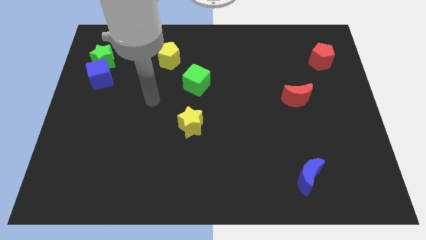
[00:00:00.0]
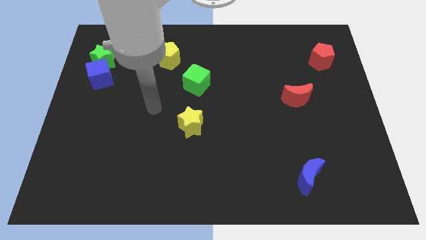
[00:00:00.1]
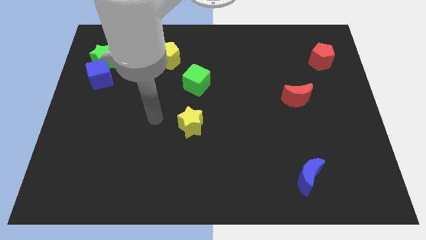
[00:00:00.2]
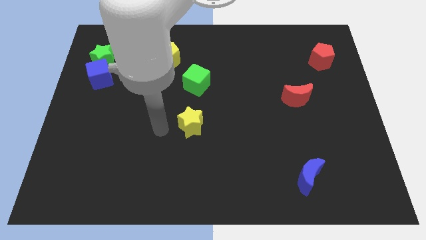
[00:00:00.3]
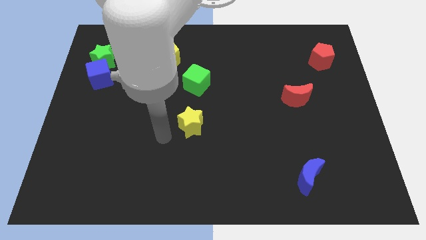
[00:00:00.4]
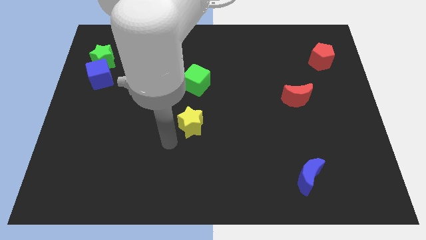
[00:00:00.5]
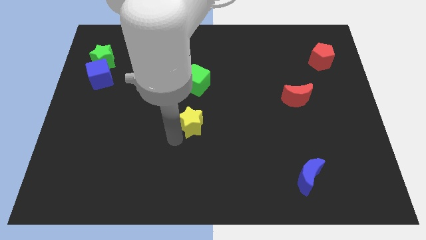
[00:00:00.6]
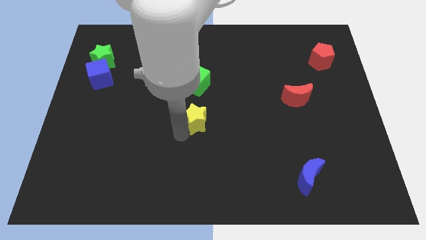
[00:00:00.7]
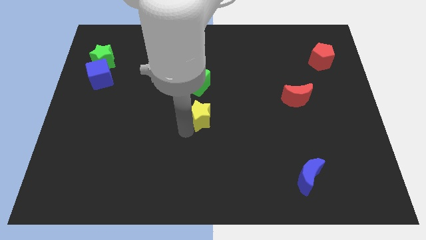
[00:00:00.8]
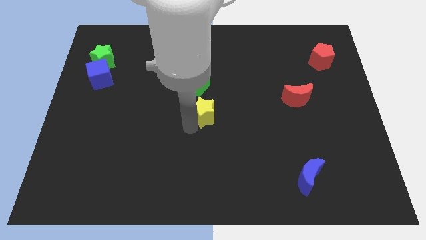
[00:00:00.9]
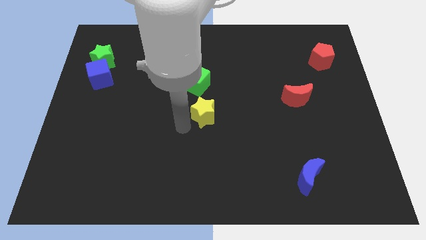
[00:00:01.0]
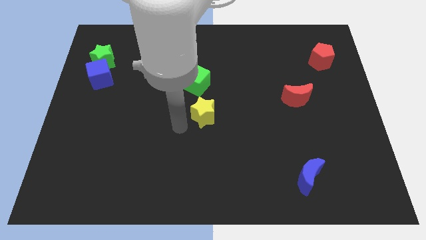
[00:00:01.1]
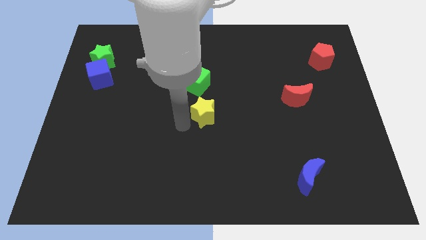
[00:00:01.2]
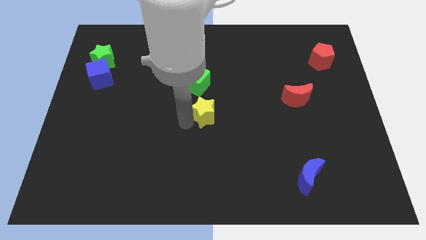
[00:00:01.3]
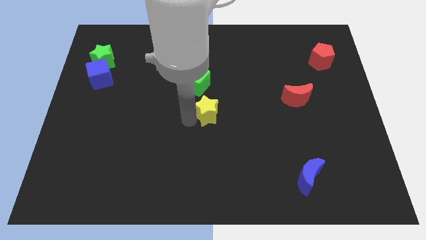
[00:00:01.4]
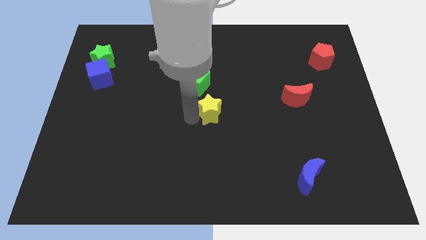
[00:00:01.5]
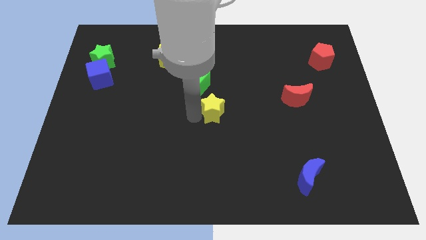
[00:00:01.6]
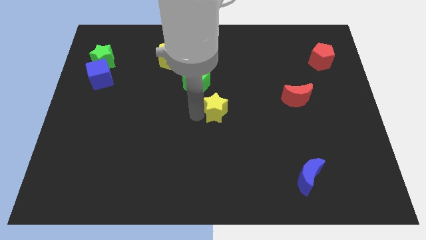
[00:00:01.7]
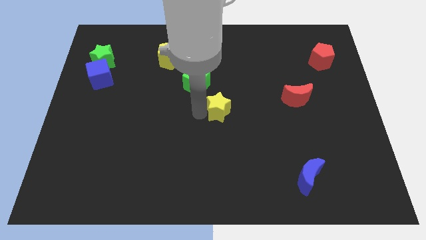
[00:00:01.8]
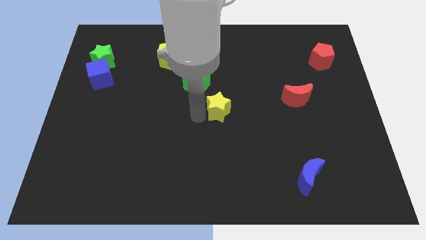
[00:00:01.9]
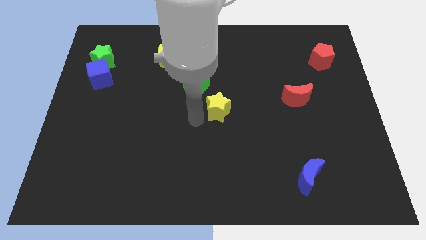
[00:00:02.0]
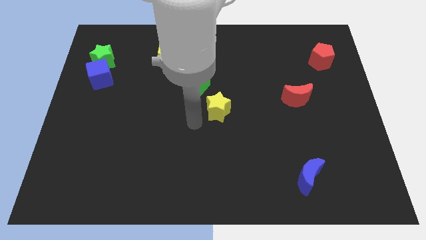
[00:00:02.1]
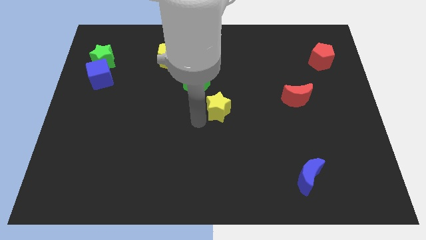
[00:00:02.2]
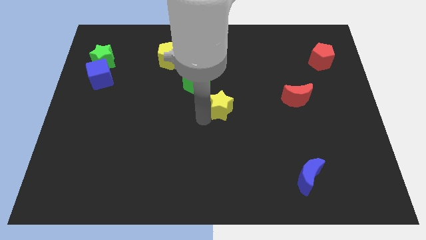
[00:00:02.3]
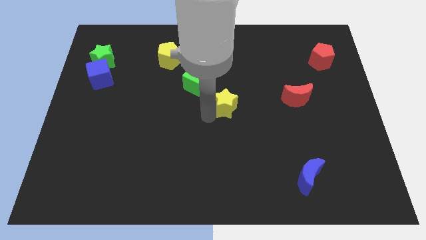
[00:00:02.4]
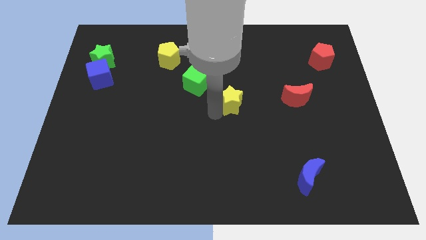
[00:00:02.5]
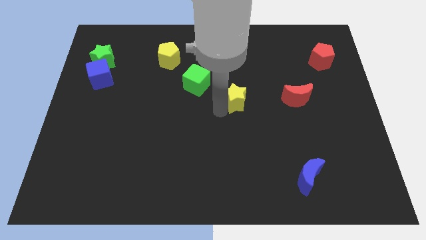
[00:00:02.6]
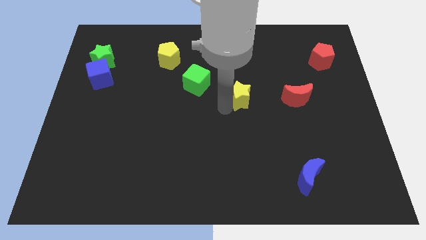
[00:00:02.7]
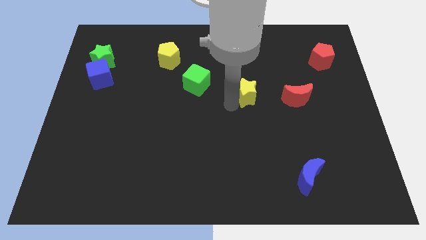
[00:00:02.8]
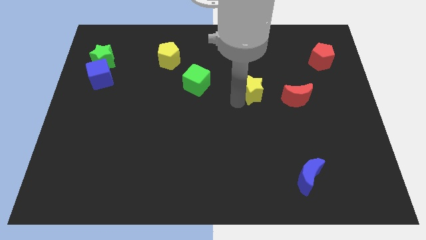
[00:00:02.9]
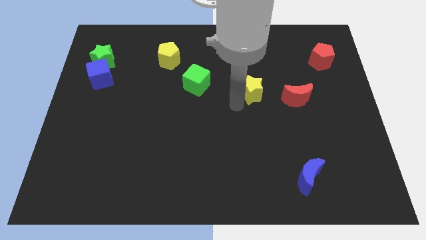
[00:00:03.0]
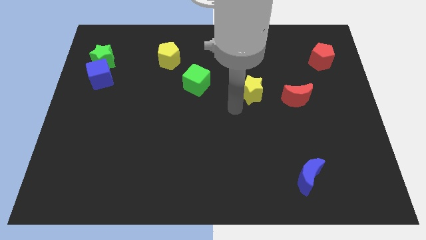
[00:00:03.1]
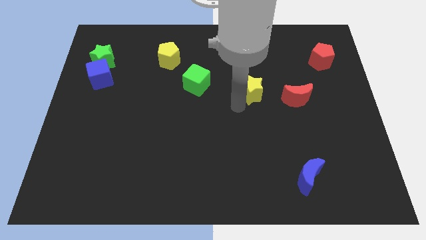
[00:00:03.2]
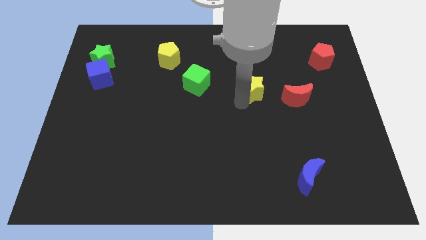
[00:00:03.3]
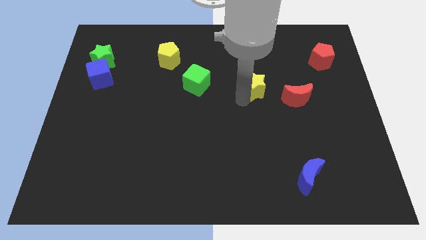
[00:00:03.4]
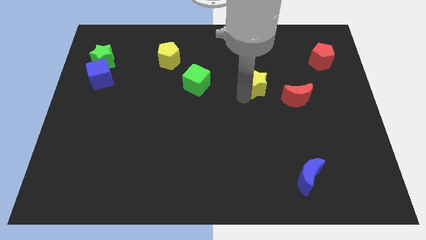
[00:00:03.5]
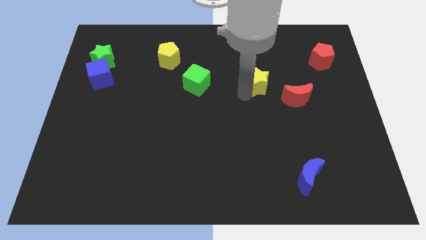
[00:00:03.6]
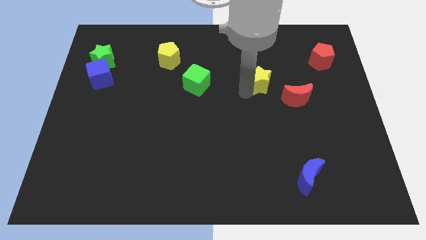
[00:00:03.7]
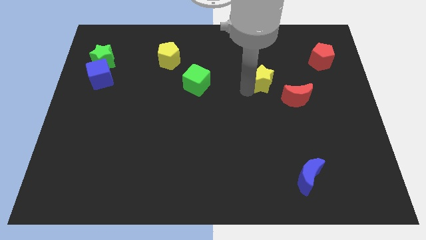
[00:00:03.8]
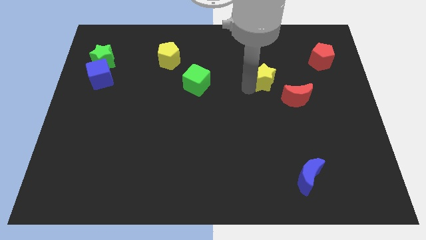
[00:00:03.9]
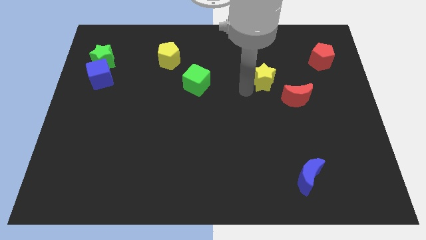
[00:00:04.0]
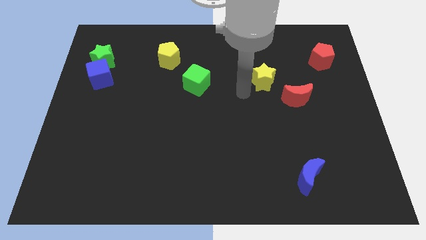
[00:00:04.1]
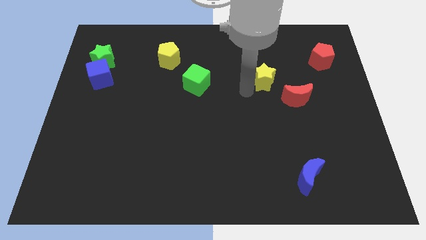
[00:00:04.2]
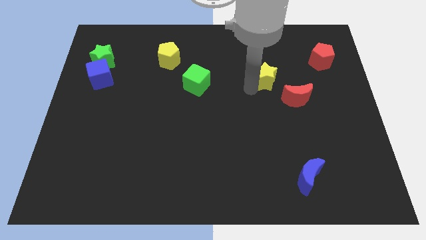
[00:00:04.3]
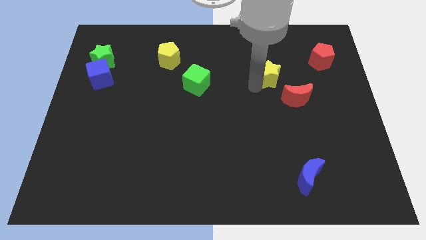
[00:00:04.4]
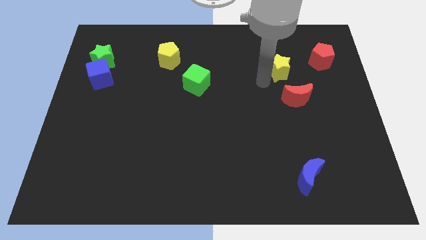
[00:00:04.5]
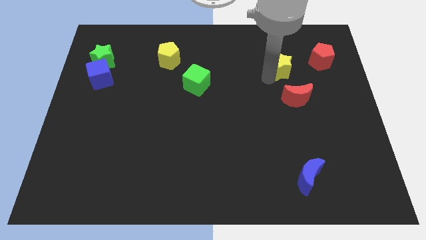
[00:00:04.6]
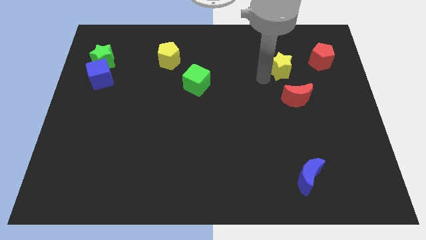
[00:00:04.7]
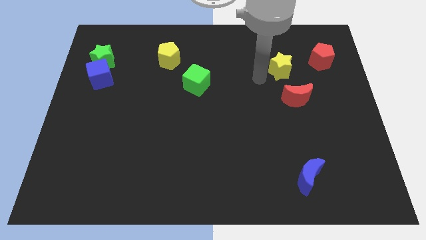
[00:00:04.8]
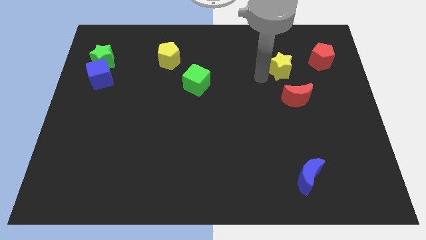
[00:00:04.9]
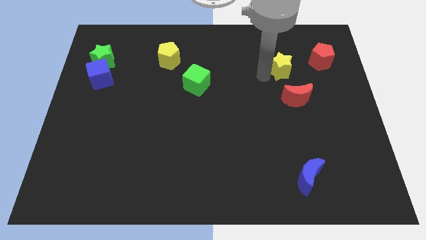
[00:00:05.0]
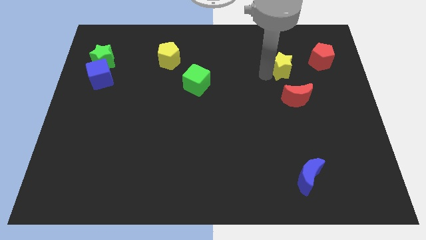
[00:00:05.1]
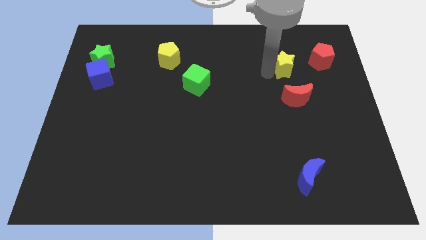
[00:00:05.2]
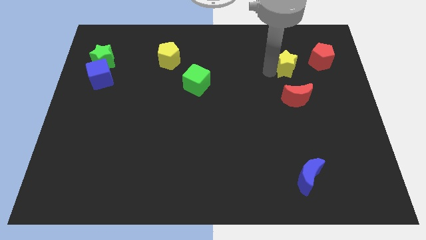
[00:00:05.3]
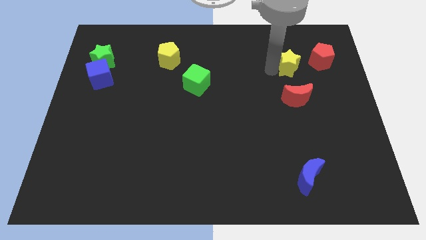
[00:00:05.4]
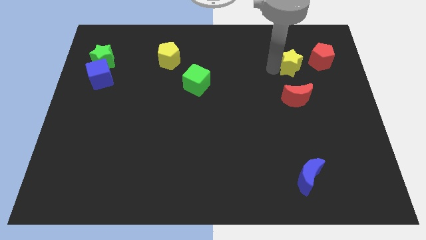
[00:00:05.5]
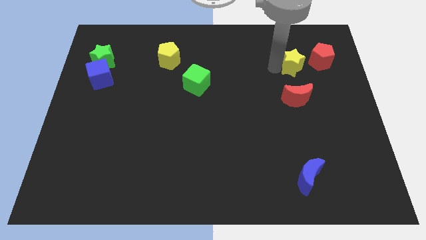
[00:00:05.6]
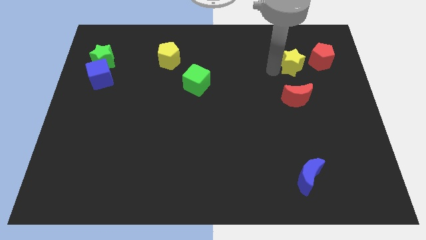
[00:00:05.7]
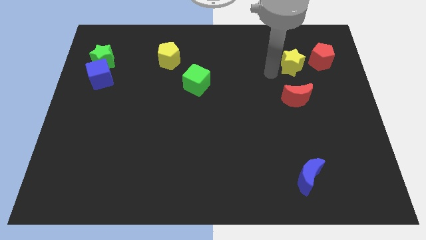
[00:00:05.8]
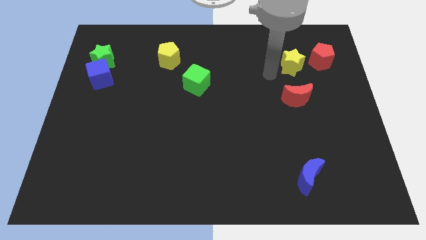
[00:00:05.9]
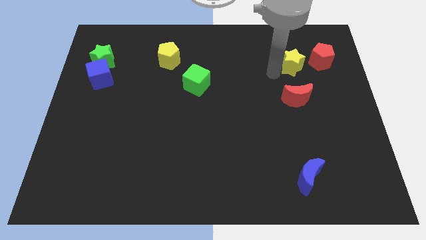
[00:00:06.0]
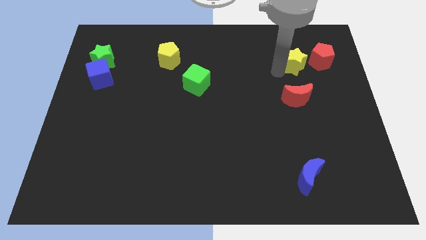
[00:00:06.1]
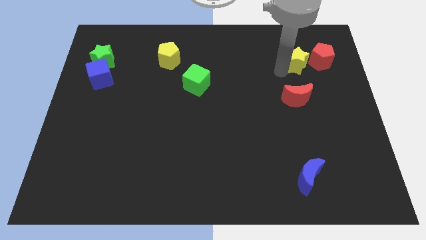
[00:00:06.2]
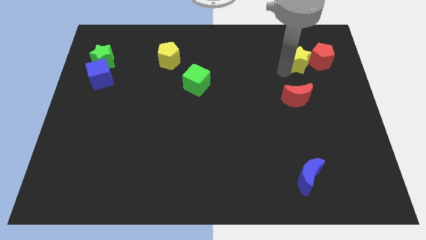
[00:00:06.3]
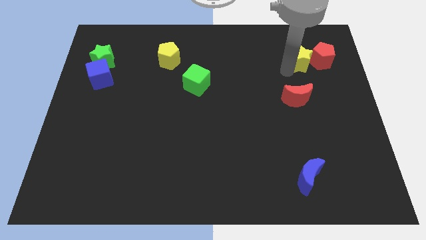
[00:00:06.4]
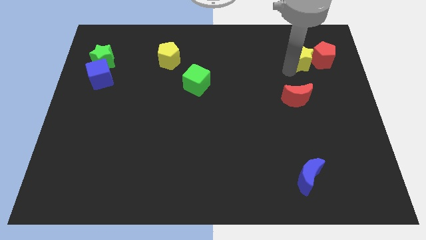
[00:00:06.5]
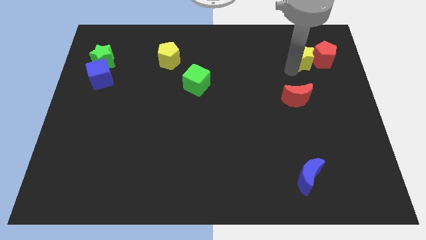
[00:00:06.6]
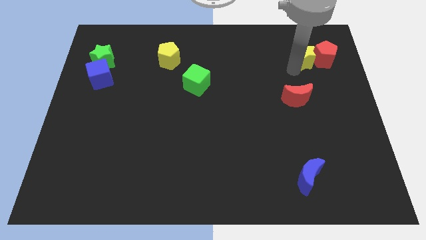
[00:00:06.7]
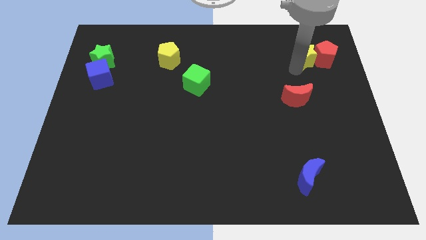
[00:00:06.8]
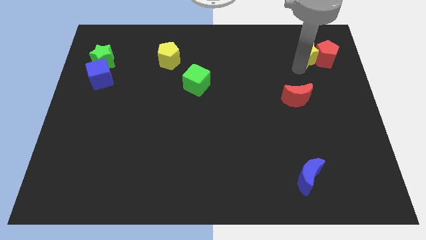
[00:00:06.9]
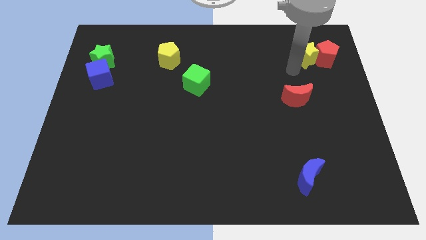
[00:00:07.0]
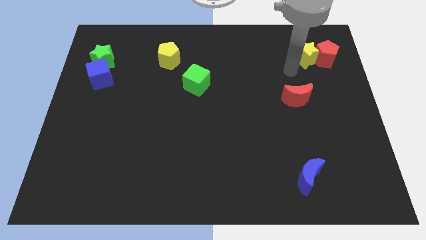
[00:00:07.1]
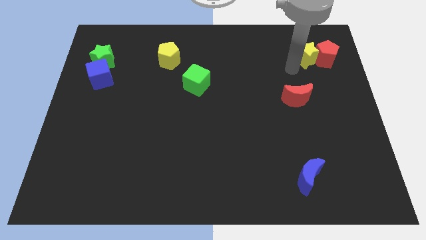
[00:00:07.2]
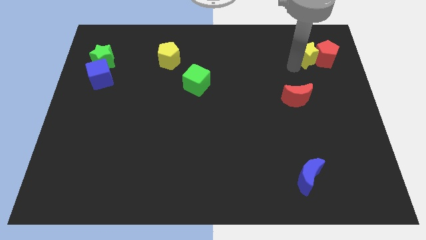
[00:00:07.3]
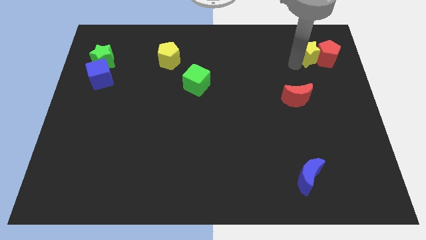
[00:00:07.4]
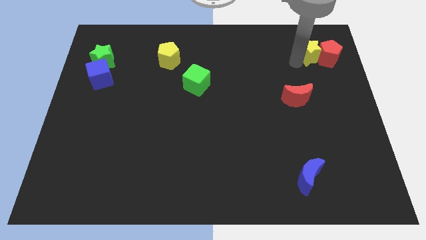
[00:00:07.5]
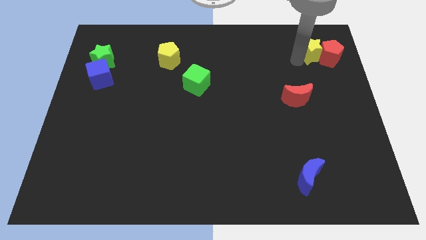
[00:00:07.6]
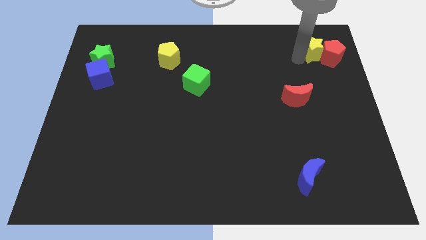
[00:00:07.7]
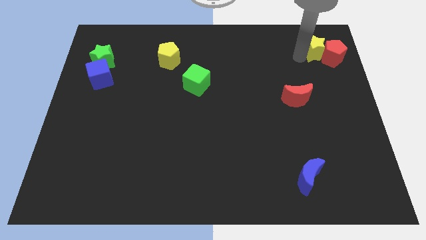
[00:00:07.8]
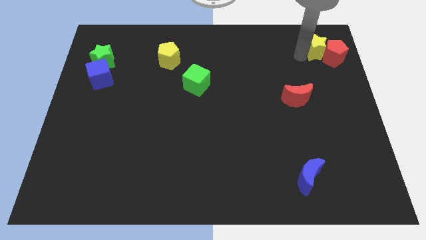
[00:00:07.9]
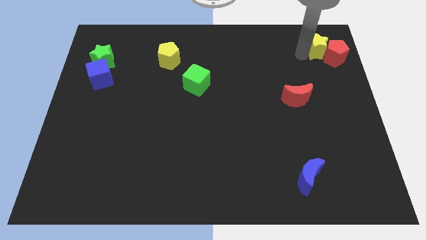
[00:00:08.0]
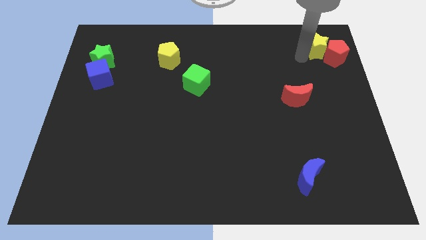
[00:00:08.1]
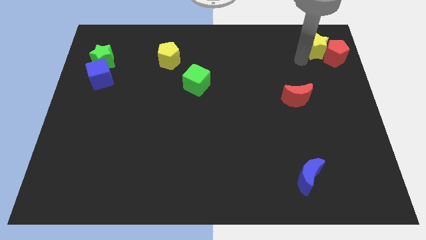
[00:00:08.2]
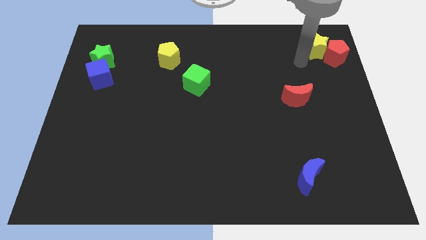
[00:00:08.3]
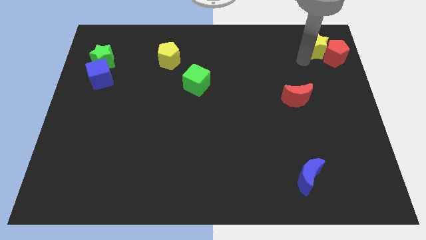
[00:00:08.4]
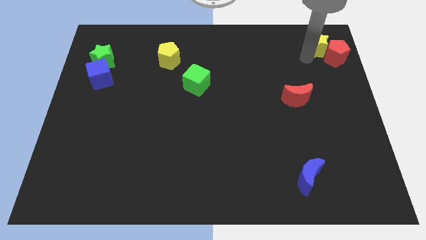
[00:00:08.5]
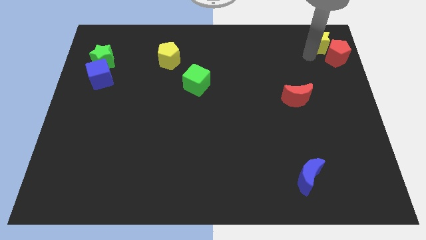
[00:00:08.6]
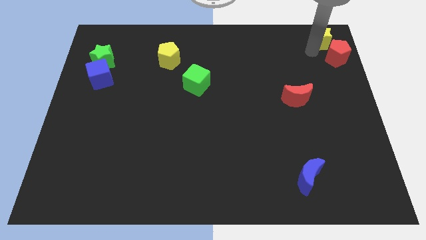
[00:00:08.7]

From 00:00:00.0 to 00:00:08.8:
slide the yellow star to the top right of the board
